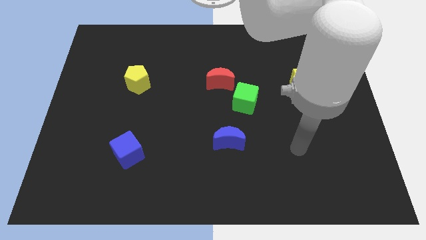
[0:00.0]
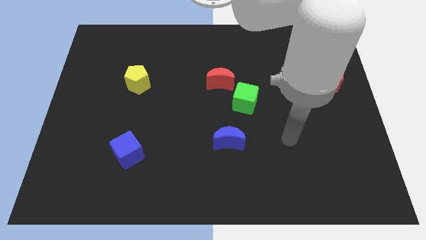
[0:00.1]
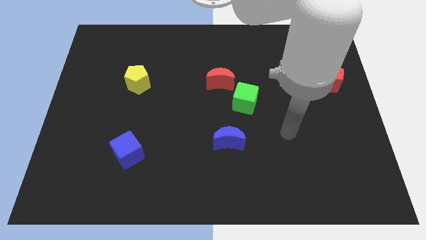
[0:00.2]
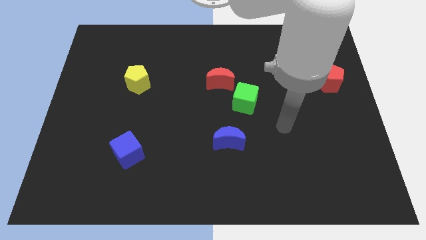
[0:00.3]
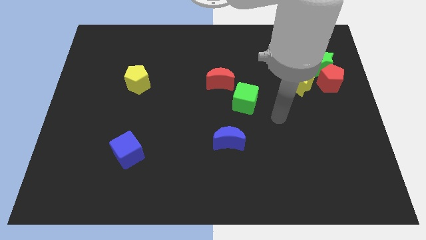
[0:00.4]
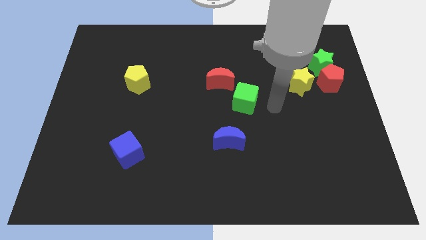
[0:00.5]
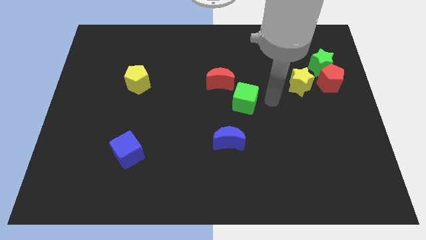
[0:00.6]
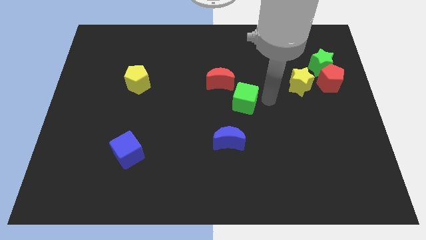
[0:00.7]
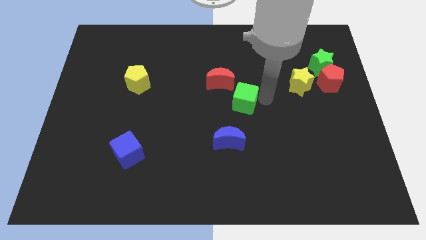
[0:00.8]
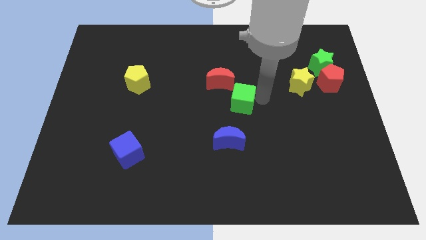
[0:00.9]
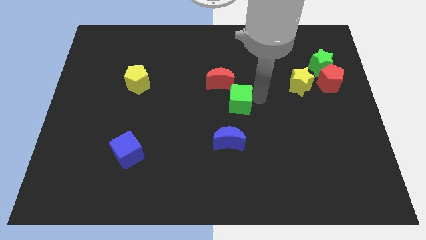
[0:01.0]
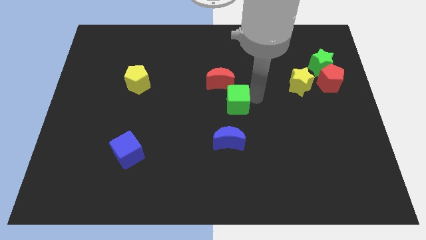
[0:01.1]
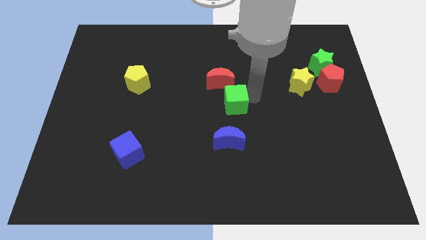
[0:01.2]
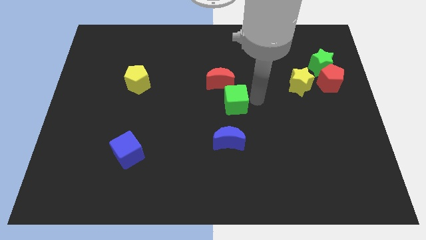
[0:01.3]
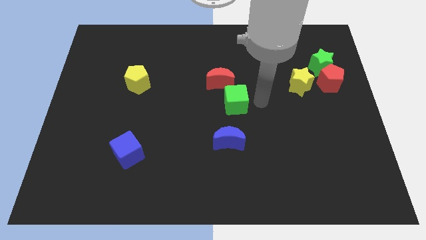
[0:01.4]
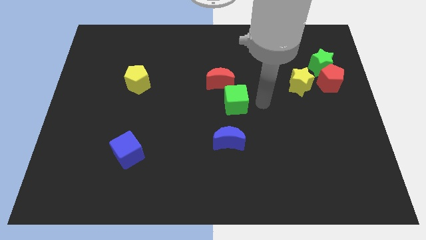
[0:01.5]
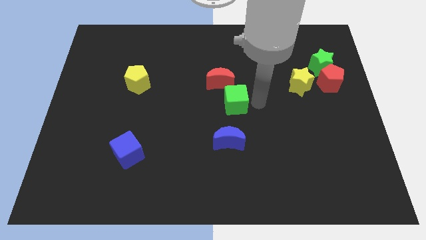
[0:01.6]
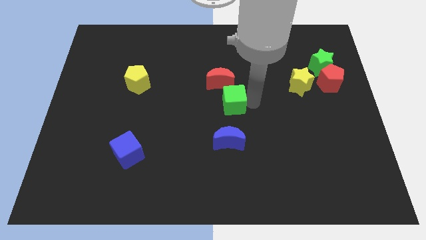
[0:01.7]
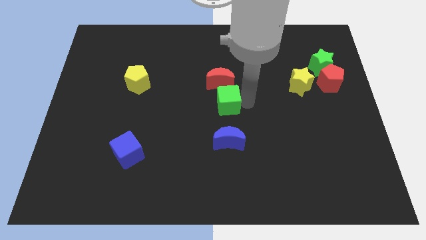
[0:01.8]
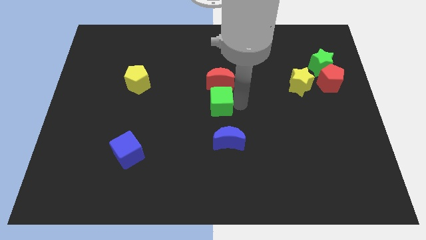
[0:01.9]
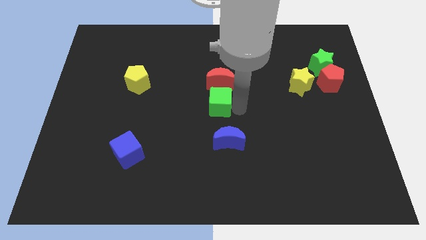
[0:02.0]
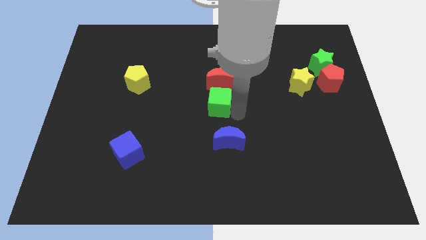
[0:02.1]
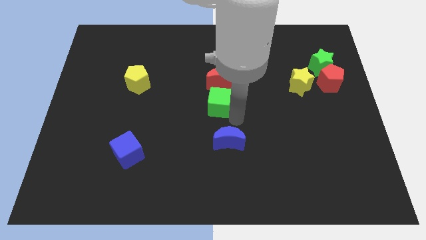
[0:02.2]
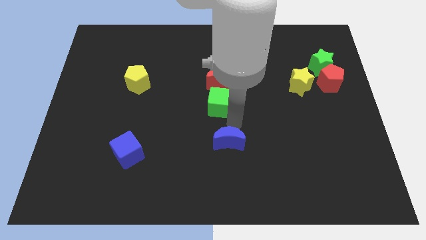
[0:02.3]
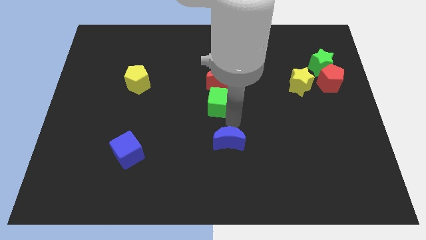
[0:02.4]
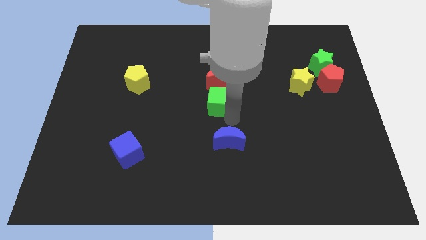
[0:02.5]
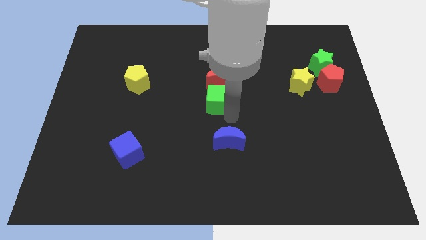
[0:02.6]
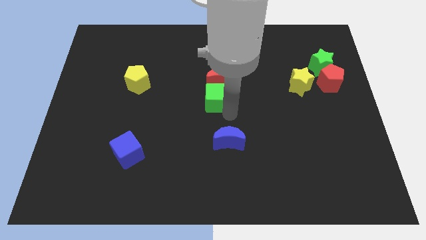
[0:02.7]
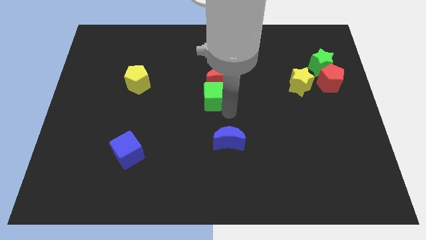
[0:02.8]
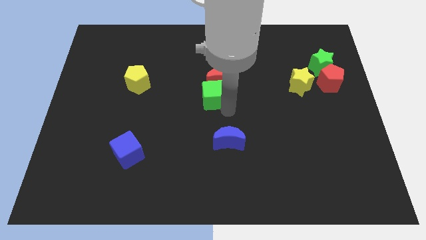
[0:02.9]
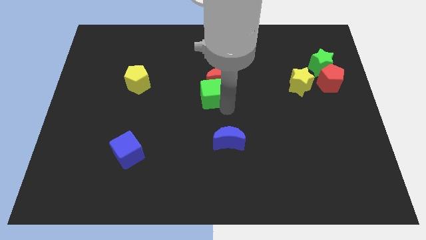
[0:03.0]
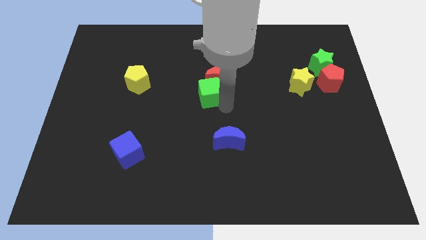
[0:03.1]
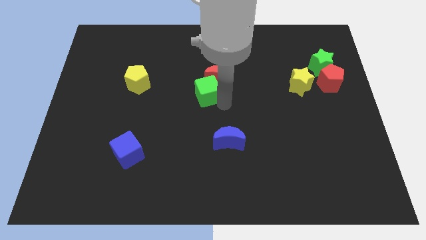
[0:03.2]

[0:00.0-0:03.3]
push the green cube diagonally upwards and left a bit

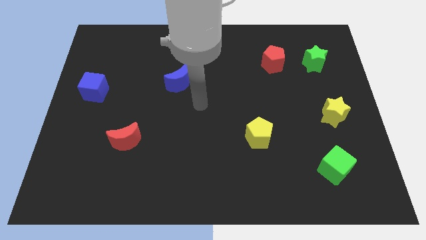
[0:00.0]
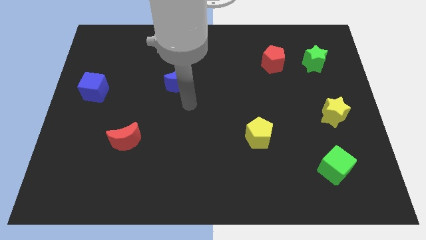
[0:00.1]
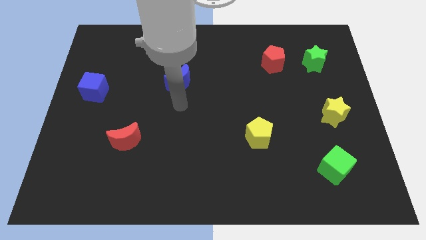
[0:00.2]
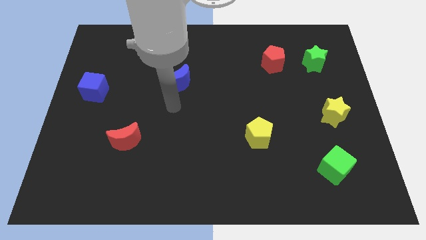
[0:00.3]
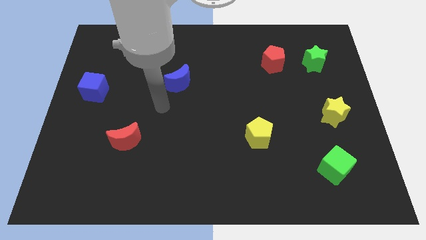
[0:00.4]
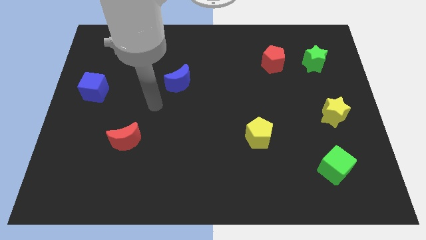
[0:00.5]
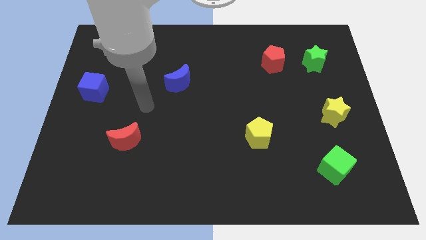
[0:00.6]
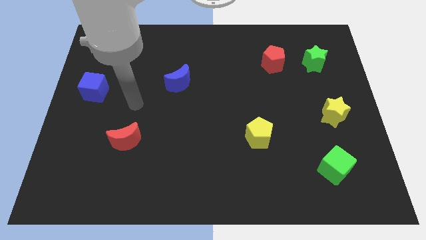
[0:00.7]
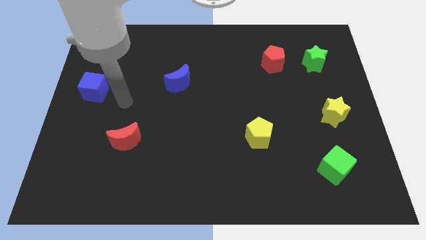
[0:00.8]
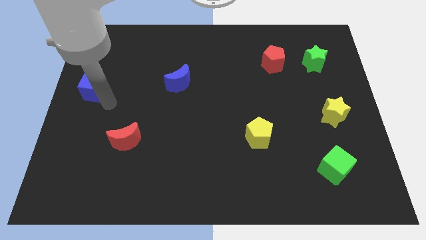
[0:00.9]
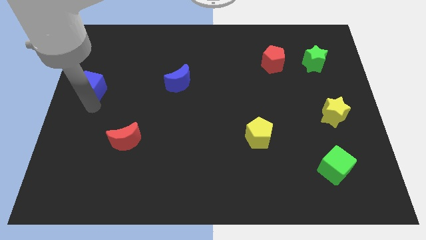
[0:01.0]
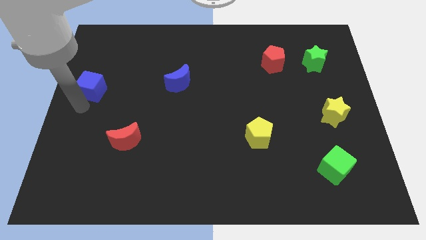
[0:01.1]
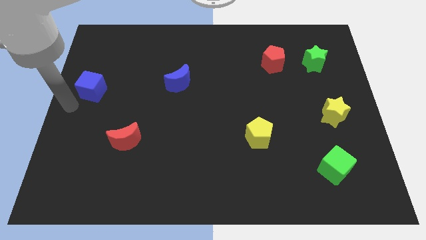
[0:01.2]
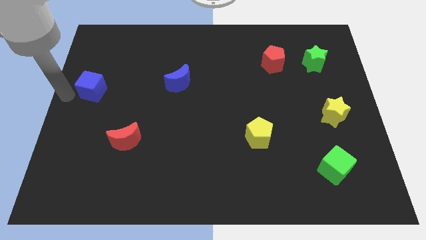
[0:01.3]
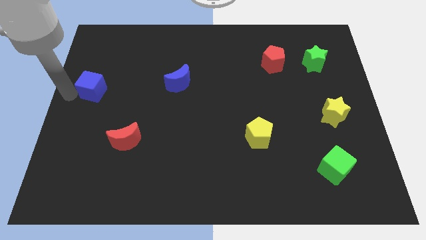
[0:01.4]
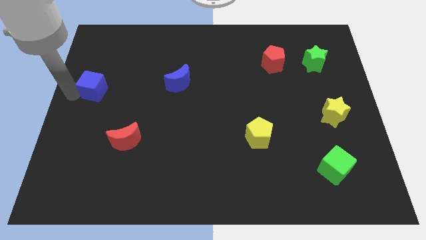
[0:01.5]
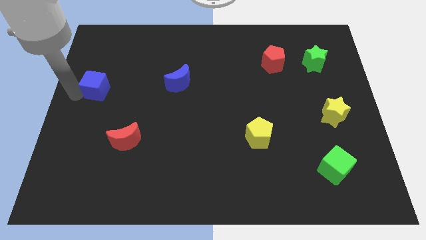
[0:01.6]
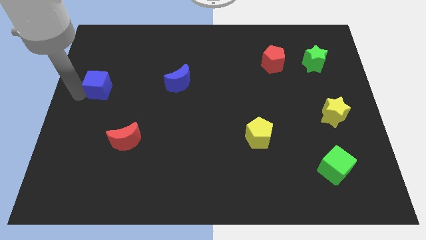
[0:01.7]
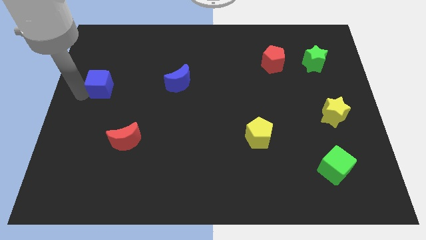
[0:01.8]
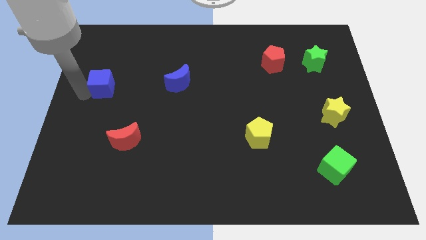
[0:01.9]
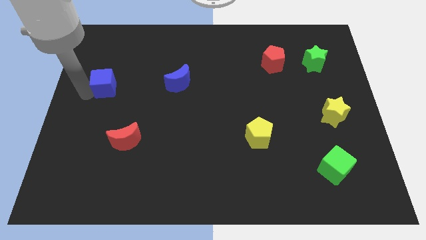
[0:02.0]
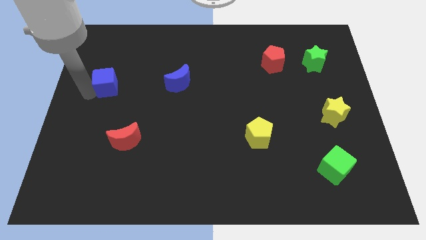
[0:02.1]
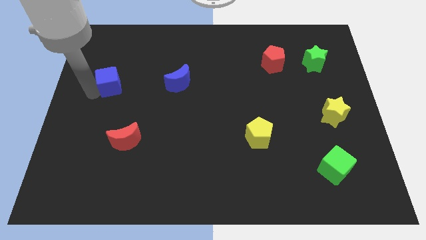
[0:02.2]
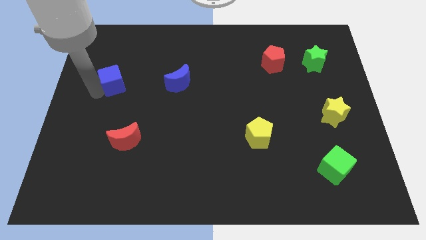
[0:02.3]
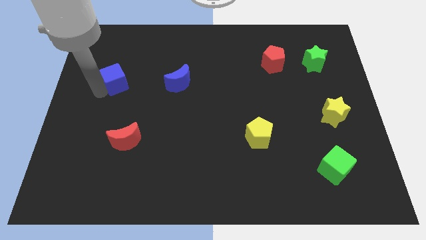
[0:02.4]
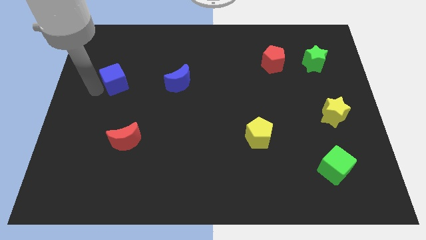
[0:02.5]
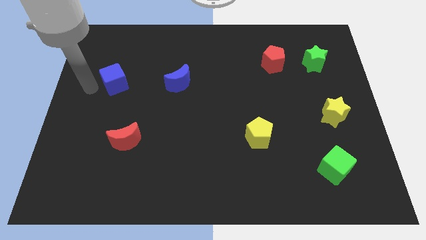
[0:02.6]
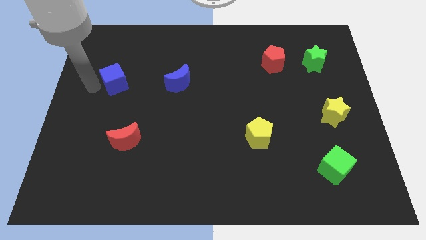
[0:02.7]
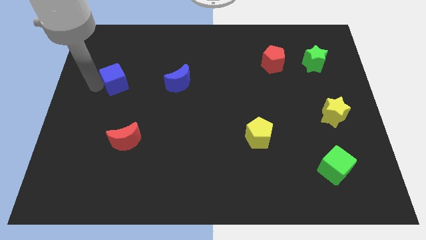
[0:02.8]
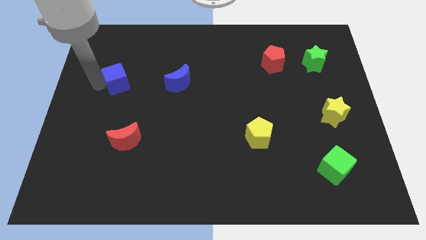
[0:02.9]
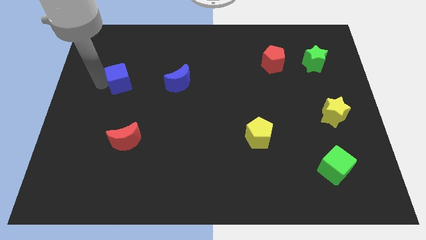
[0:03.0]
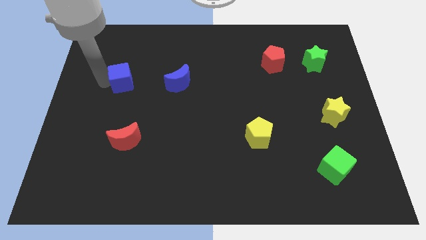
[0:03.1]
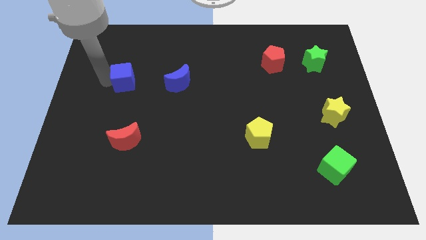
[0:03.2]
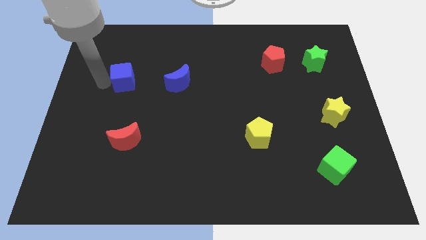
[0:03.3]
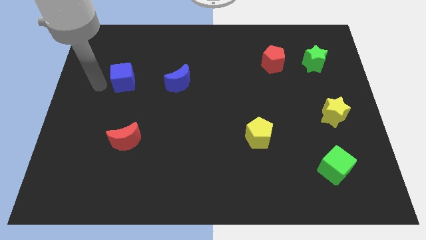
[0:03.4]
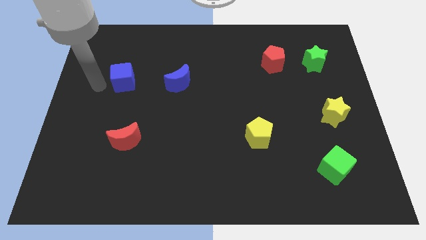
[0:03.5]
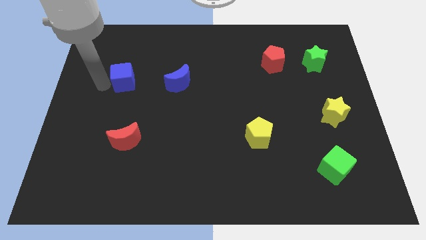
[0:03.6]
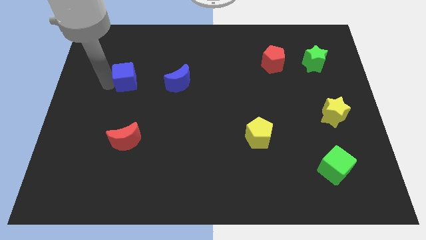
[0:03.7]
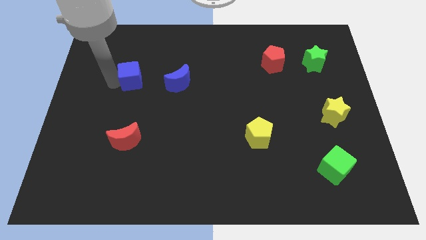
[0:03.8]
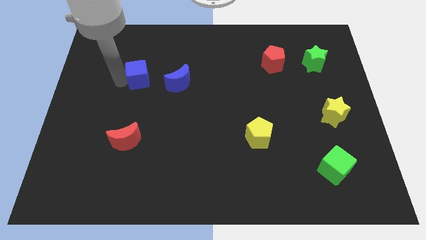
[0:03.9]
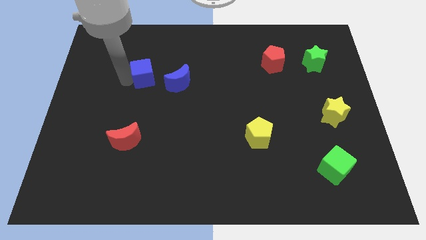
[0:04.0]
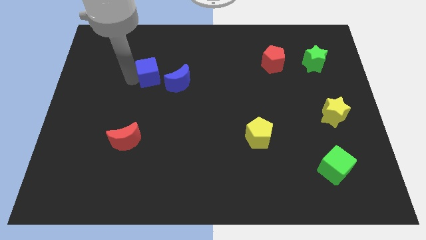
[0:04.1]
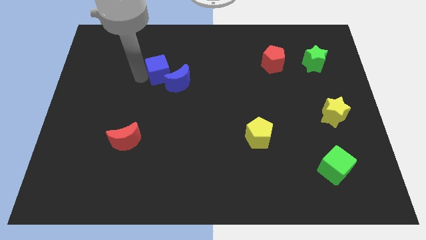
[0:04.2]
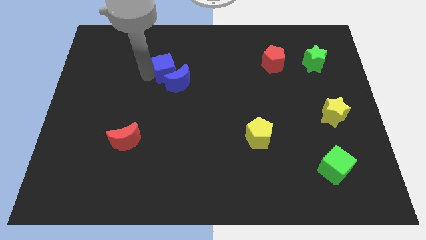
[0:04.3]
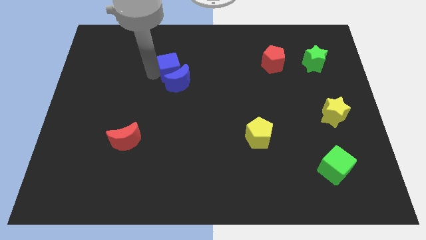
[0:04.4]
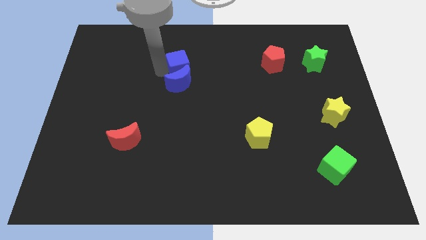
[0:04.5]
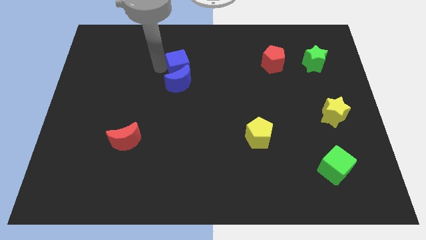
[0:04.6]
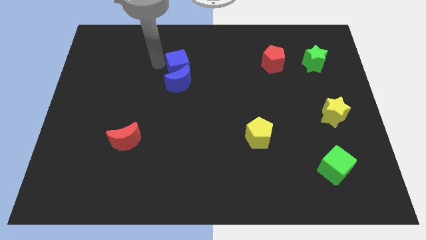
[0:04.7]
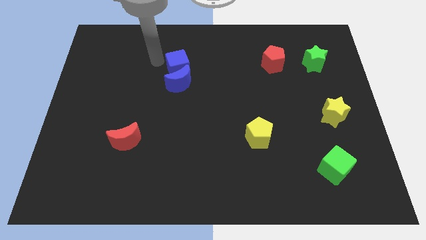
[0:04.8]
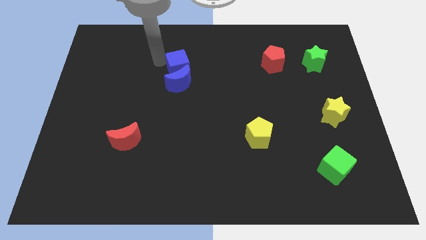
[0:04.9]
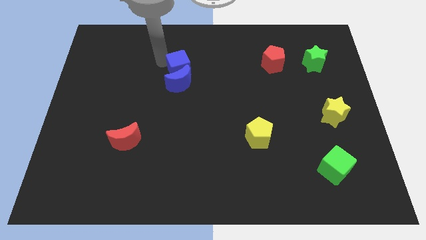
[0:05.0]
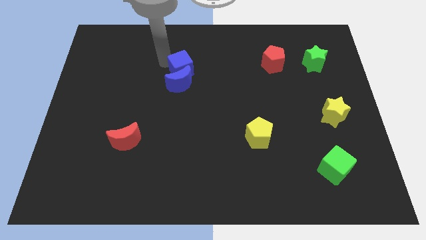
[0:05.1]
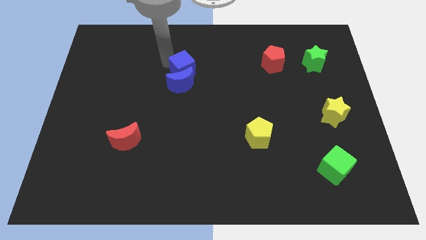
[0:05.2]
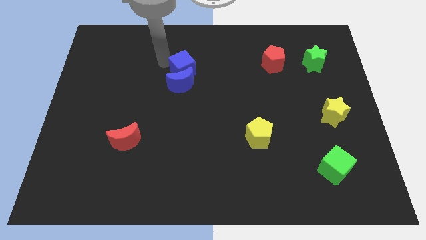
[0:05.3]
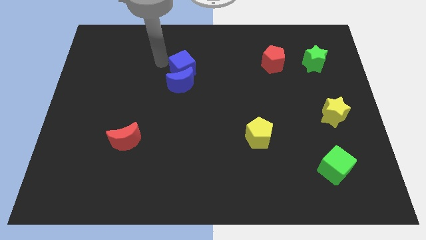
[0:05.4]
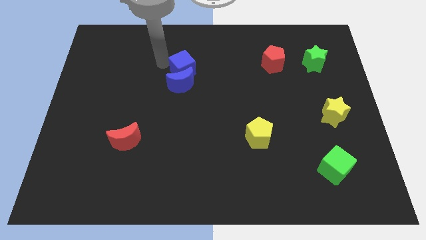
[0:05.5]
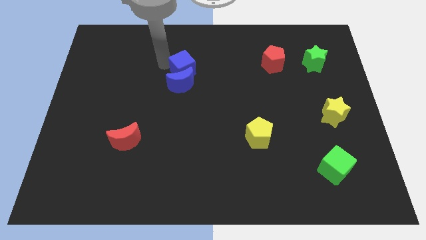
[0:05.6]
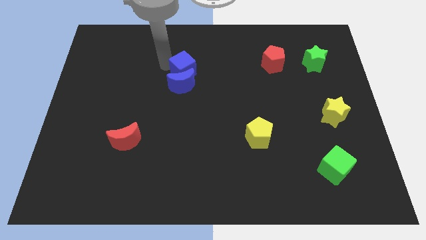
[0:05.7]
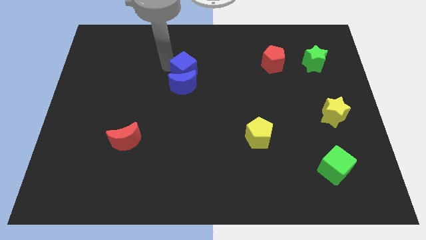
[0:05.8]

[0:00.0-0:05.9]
slide the blue cube to the right
